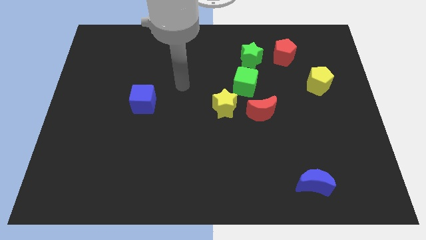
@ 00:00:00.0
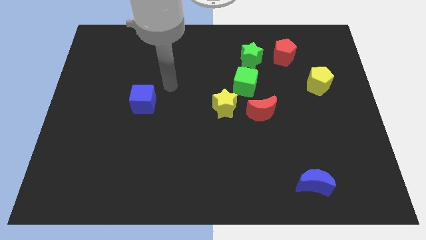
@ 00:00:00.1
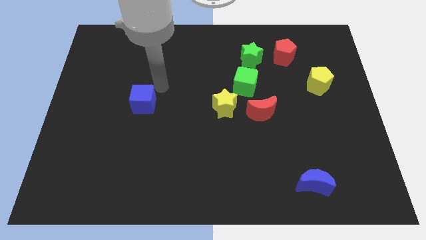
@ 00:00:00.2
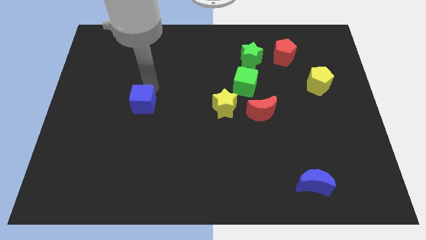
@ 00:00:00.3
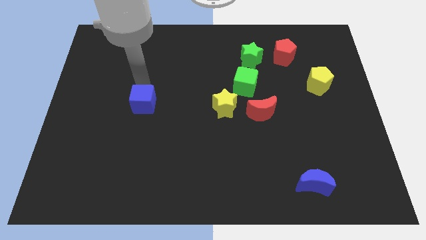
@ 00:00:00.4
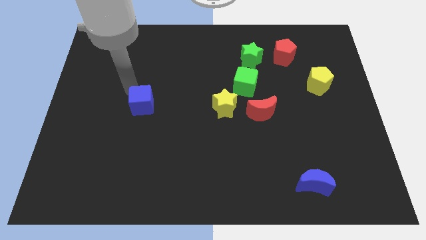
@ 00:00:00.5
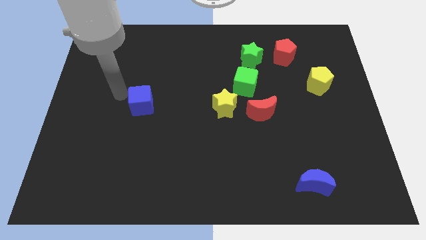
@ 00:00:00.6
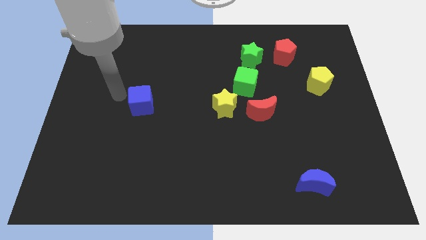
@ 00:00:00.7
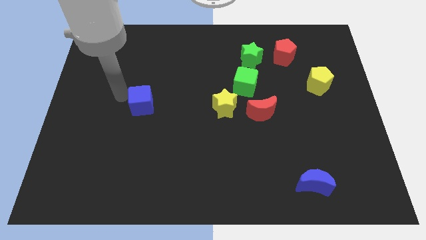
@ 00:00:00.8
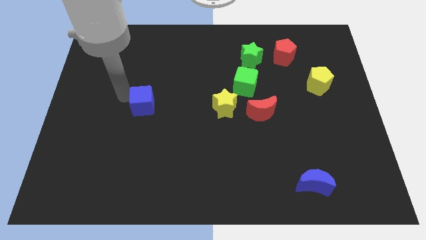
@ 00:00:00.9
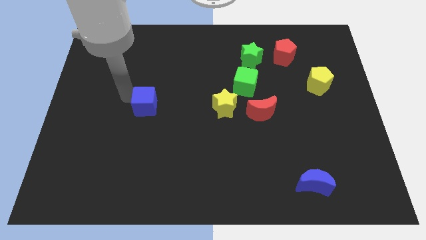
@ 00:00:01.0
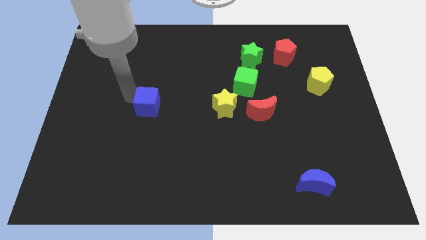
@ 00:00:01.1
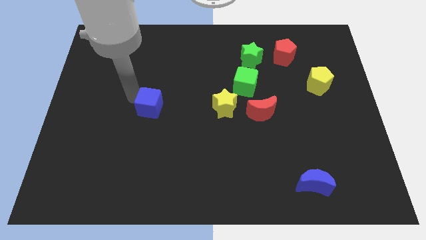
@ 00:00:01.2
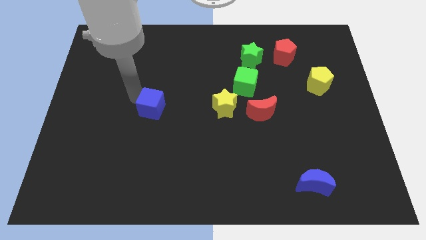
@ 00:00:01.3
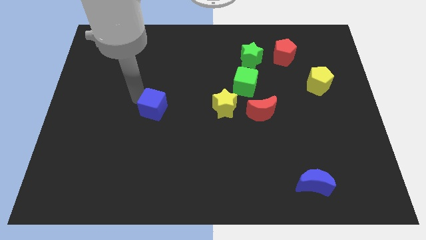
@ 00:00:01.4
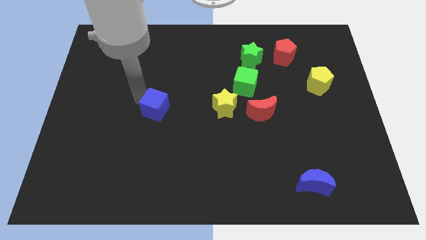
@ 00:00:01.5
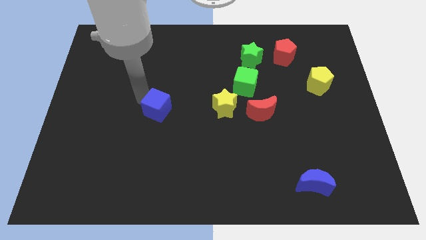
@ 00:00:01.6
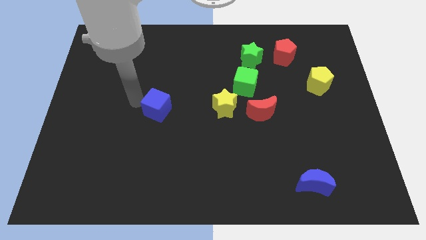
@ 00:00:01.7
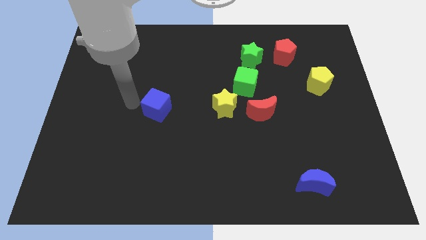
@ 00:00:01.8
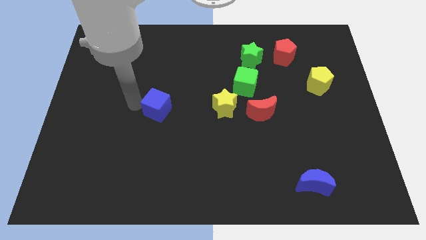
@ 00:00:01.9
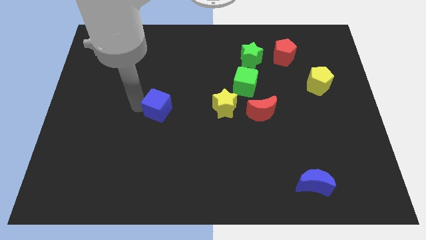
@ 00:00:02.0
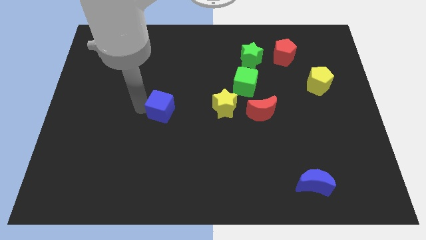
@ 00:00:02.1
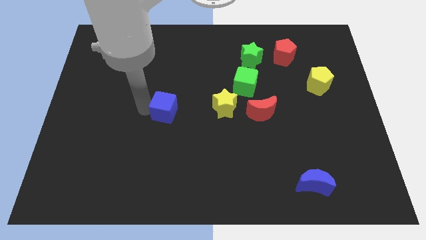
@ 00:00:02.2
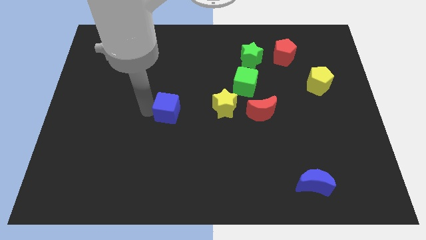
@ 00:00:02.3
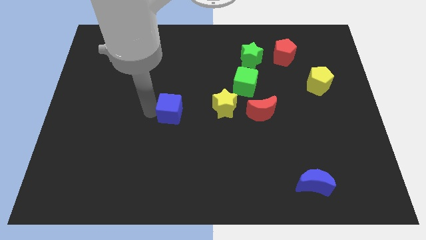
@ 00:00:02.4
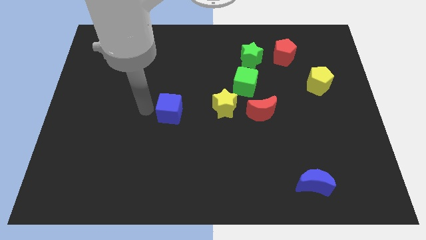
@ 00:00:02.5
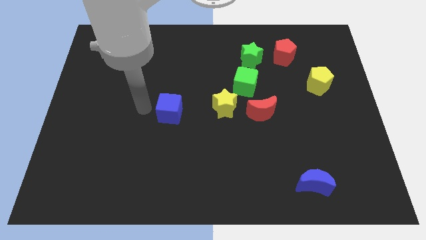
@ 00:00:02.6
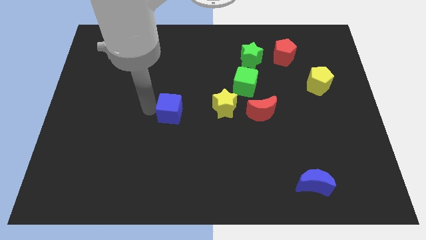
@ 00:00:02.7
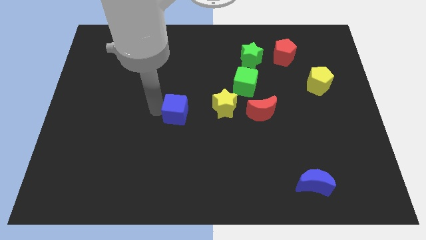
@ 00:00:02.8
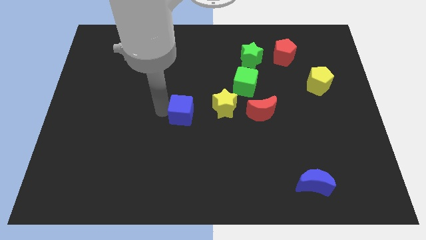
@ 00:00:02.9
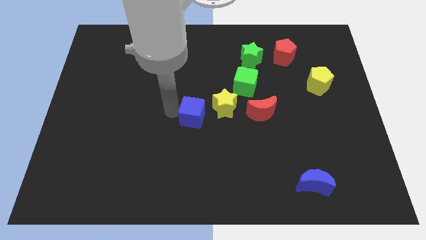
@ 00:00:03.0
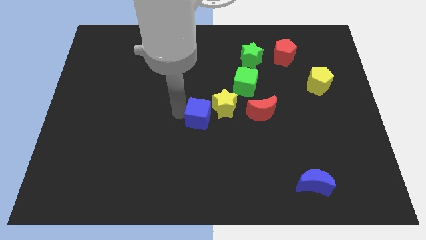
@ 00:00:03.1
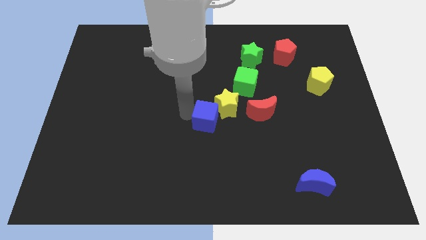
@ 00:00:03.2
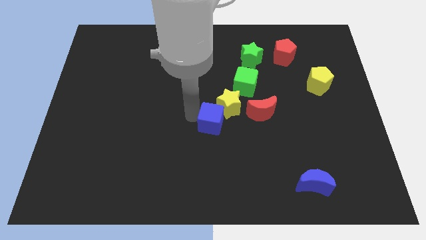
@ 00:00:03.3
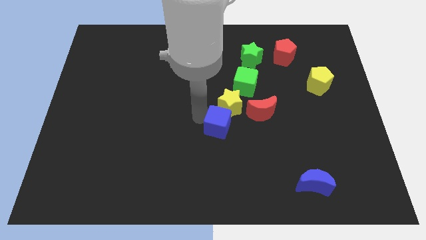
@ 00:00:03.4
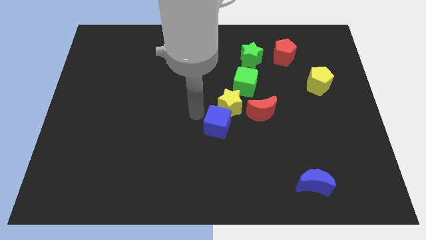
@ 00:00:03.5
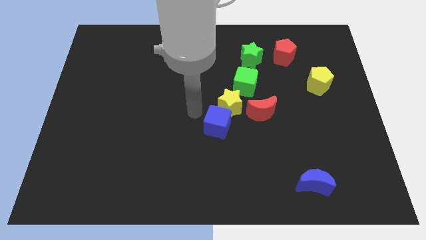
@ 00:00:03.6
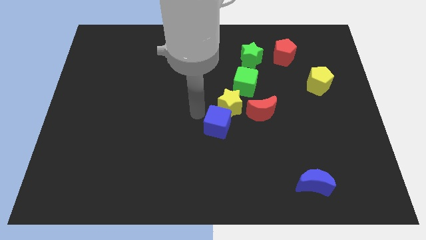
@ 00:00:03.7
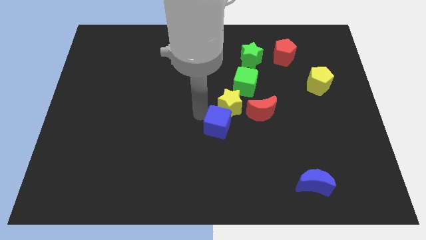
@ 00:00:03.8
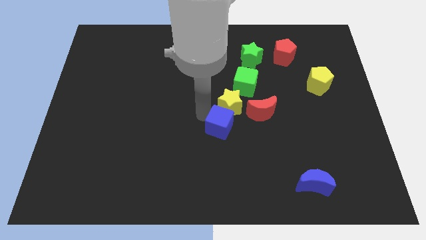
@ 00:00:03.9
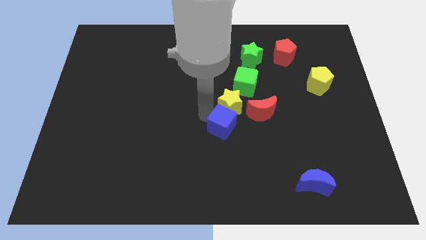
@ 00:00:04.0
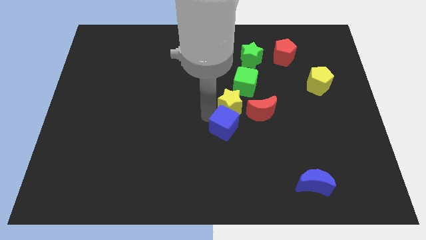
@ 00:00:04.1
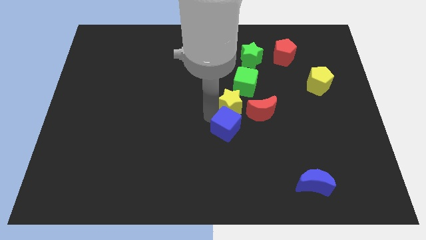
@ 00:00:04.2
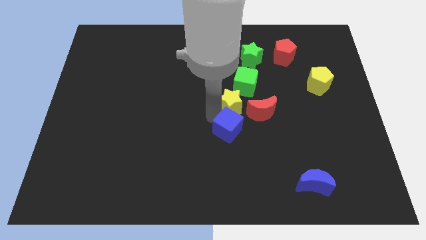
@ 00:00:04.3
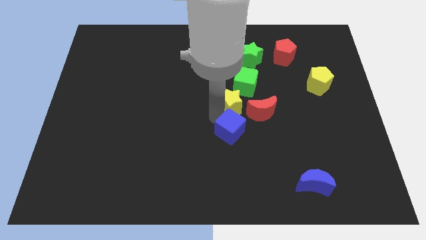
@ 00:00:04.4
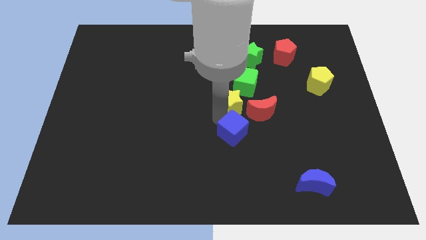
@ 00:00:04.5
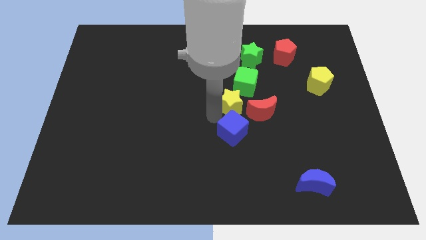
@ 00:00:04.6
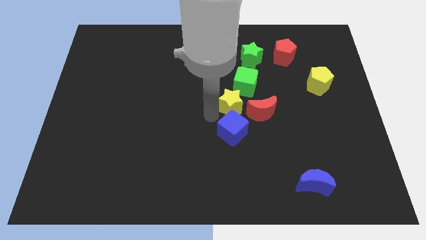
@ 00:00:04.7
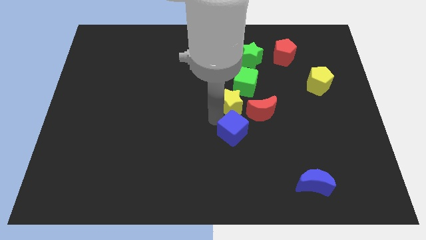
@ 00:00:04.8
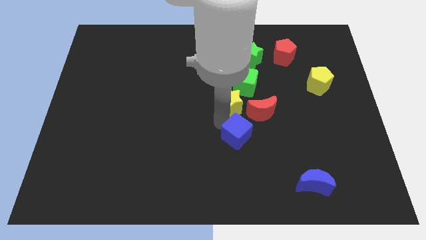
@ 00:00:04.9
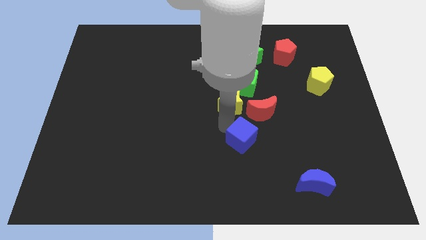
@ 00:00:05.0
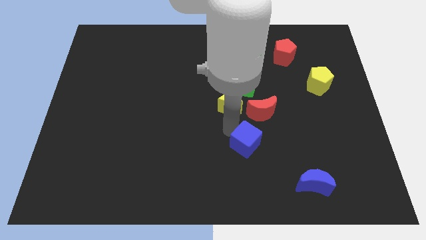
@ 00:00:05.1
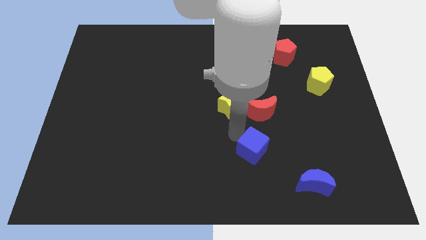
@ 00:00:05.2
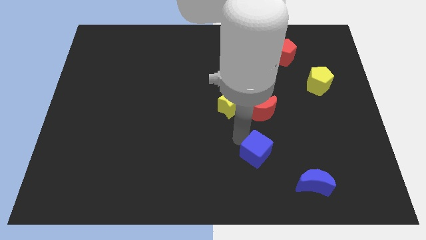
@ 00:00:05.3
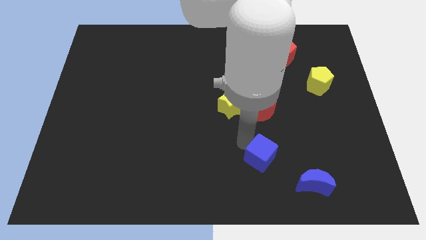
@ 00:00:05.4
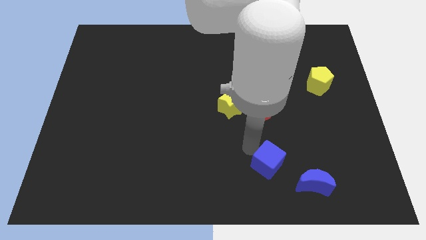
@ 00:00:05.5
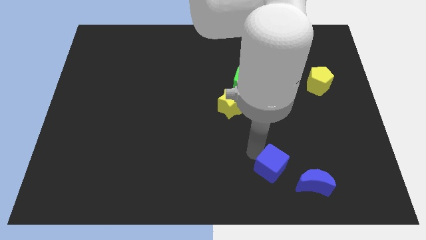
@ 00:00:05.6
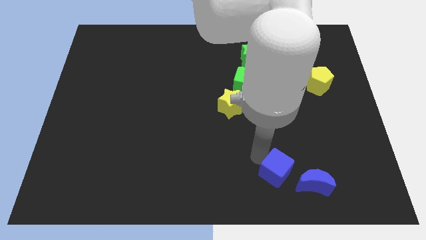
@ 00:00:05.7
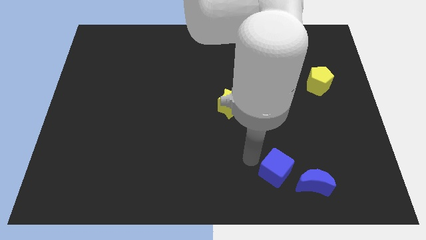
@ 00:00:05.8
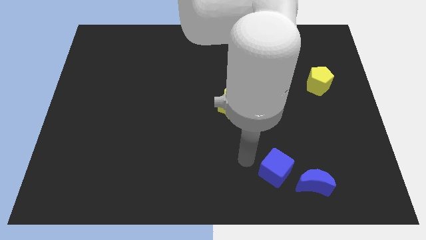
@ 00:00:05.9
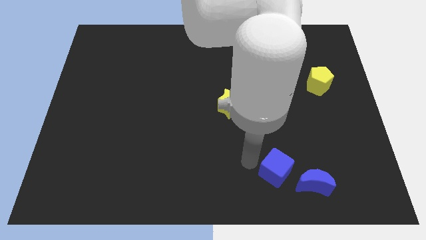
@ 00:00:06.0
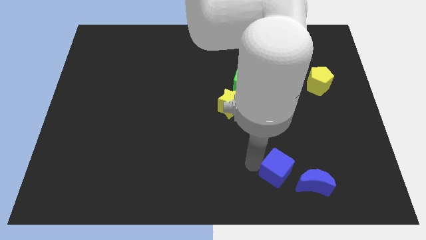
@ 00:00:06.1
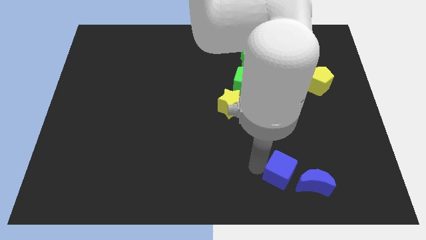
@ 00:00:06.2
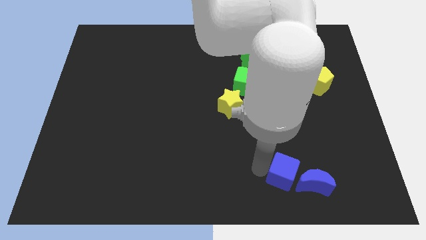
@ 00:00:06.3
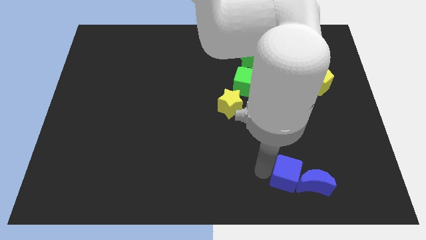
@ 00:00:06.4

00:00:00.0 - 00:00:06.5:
put the blue cube towards the blue moon
